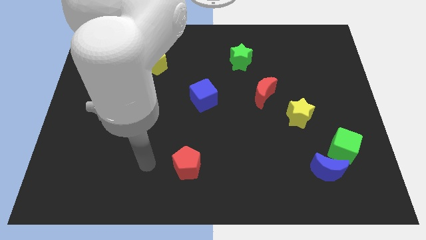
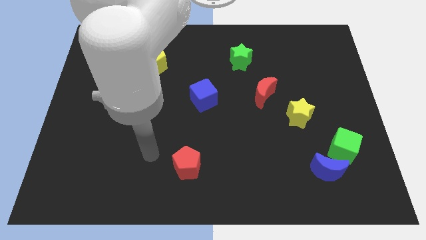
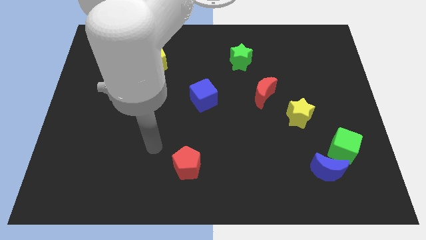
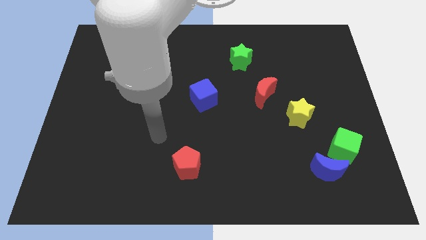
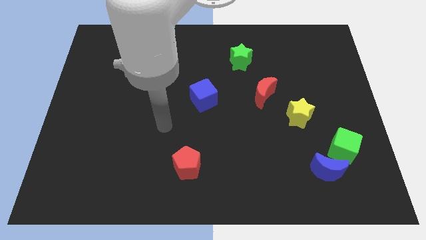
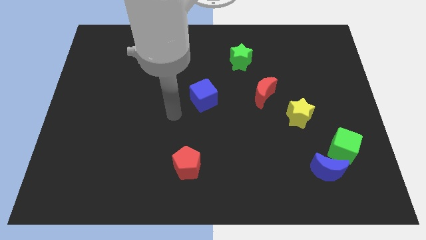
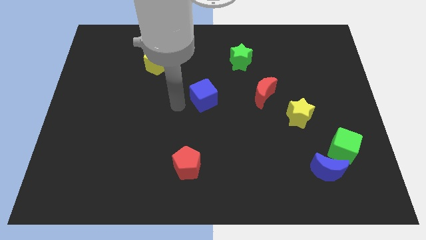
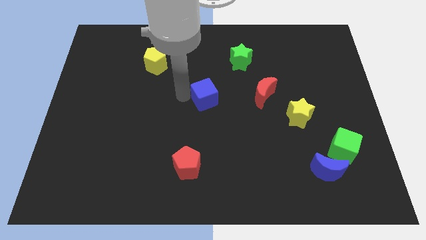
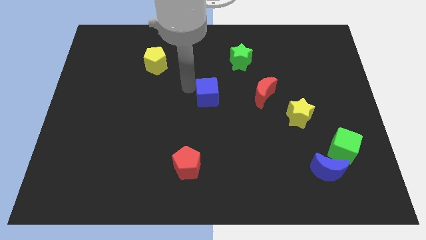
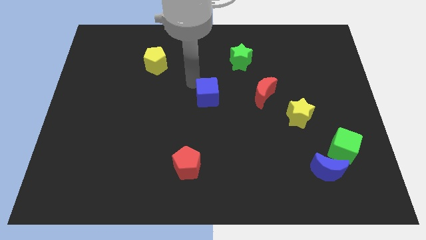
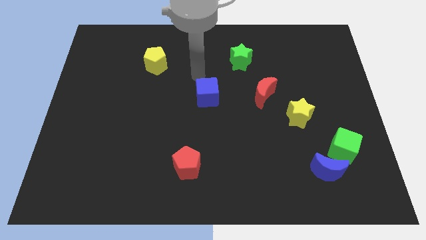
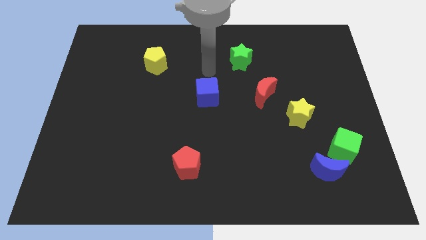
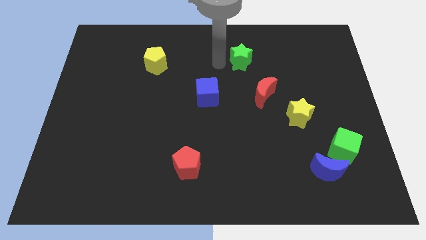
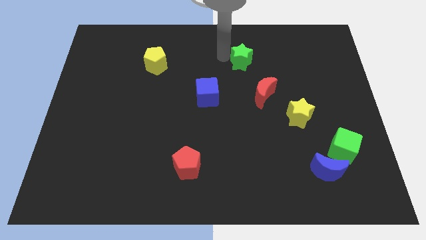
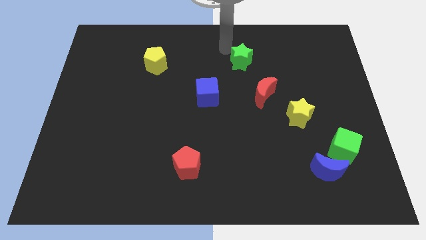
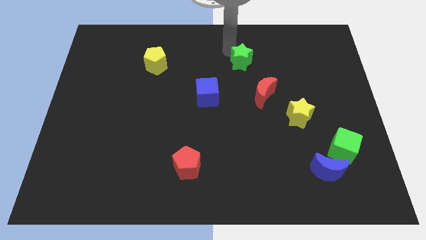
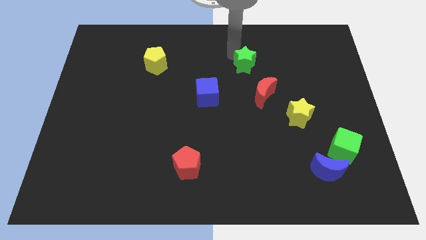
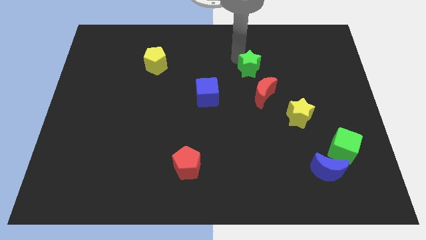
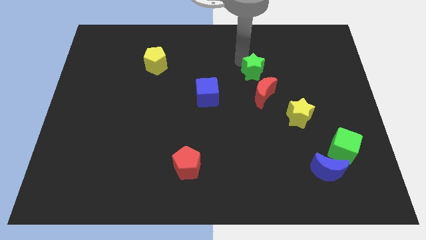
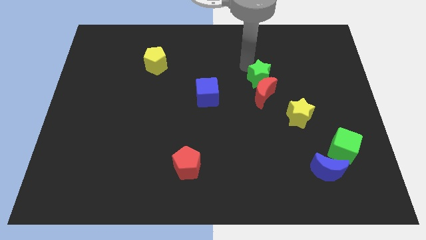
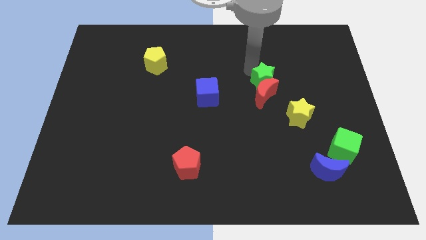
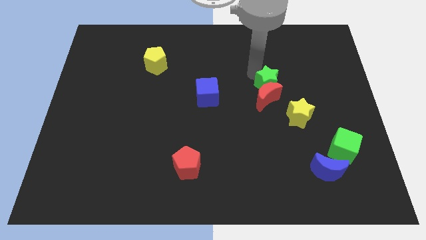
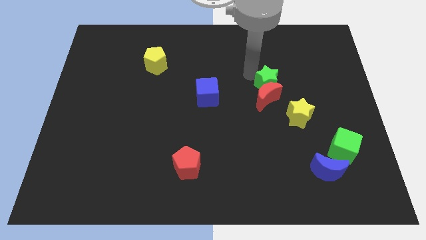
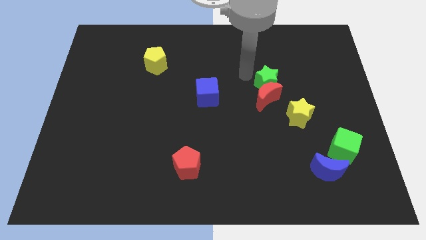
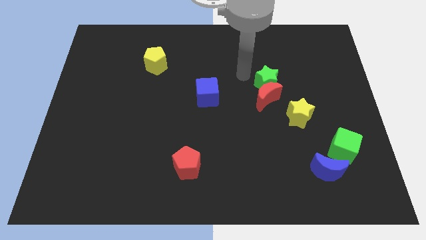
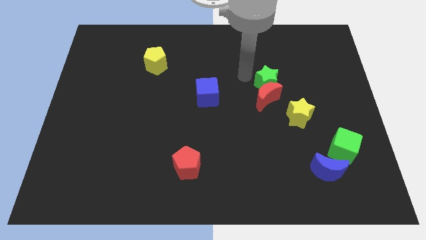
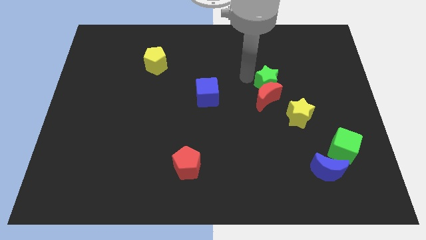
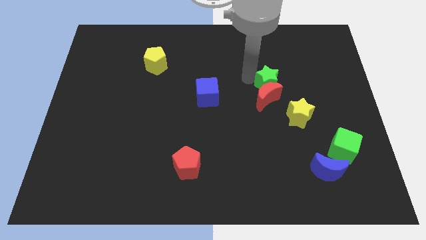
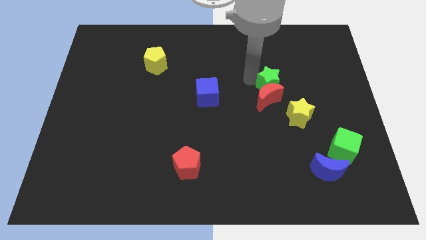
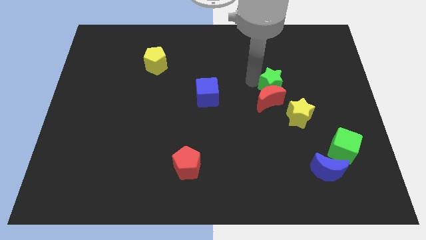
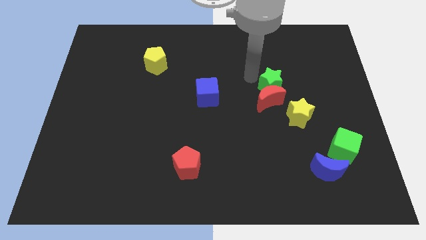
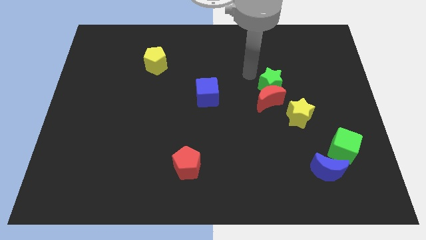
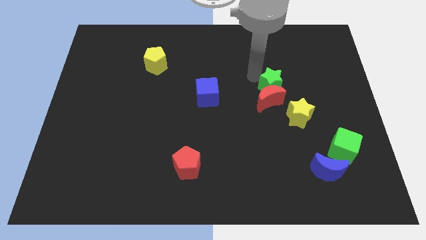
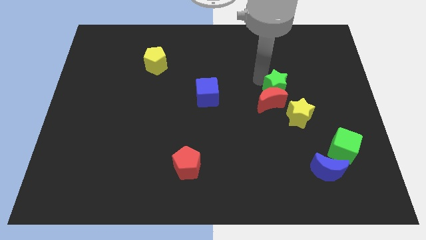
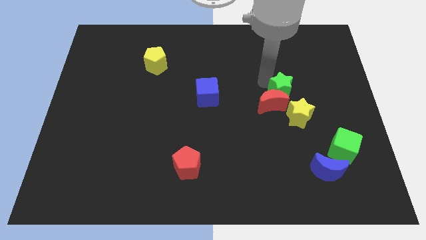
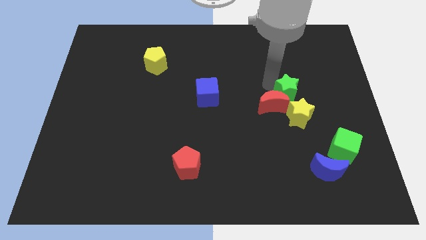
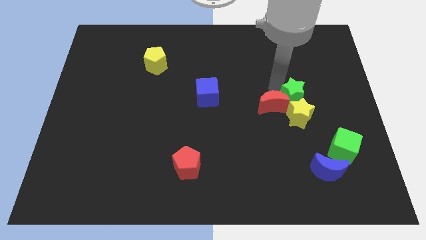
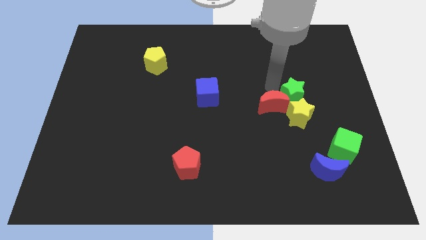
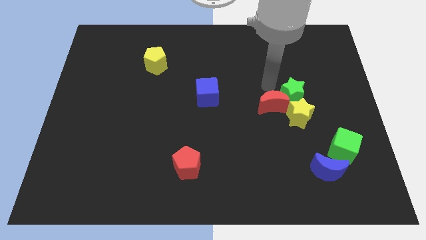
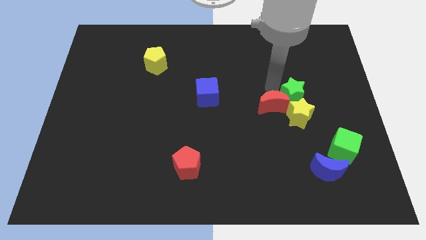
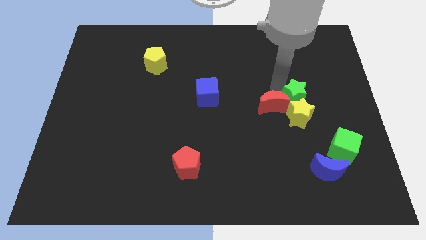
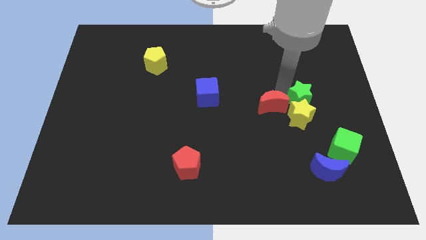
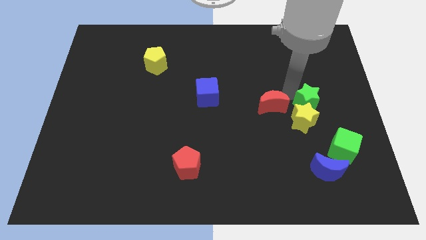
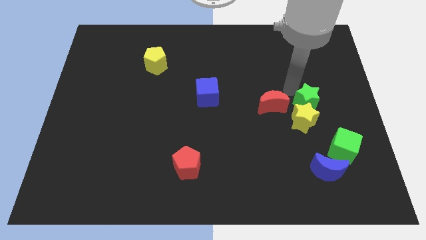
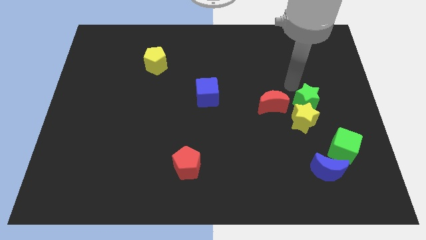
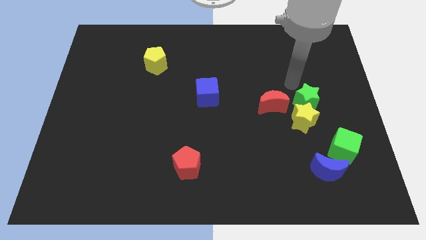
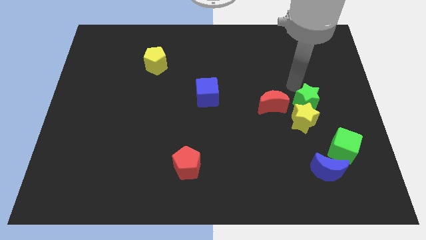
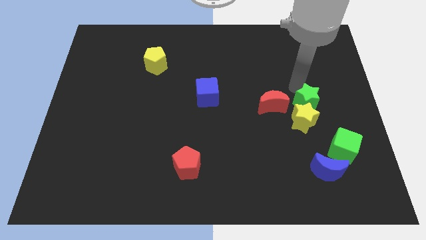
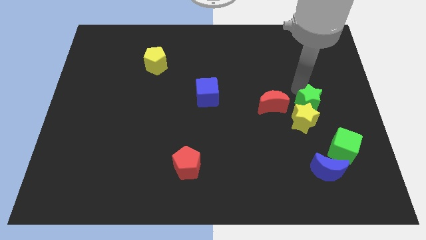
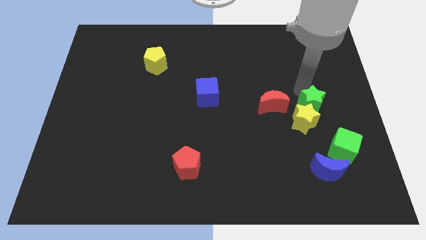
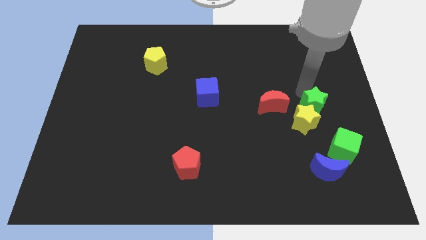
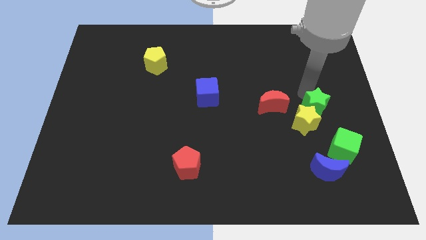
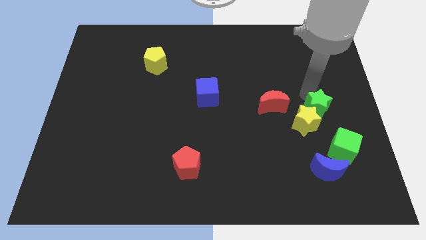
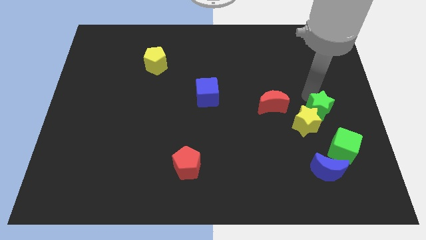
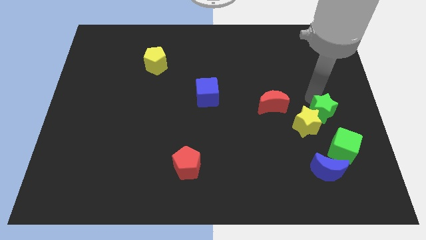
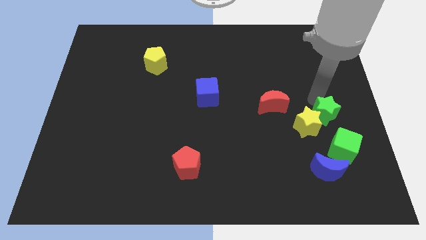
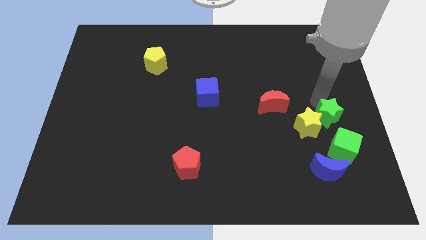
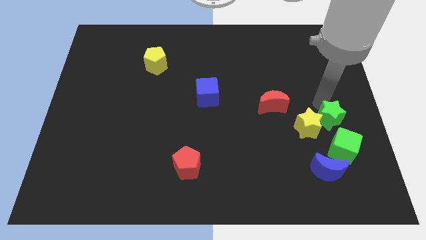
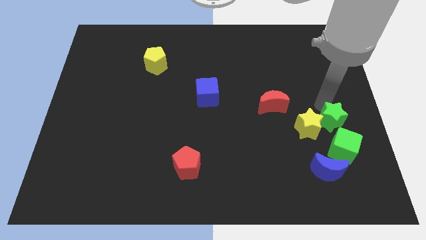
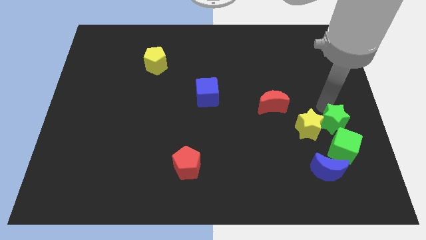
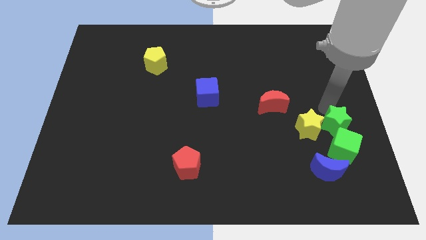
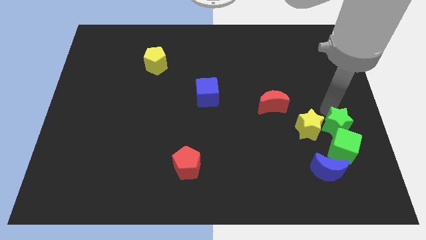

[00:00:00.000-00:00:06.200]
move the green star next to the green cube

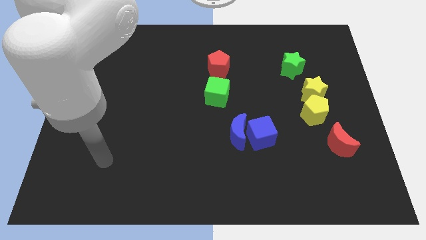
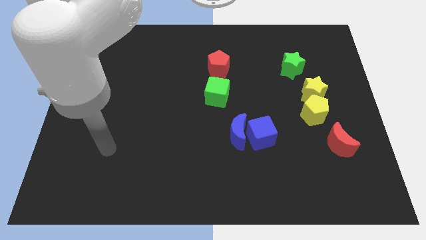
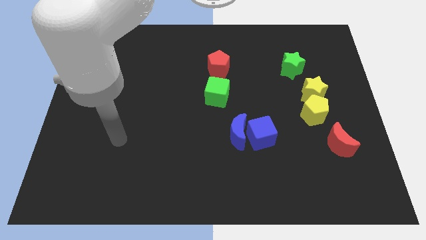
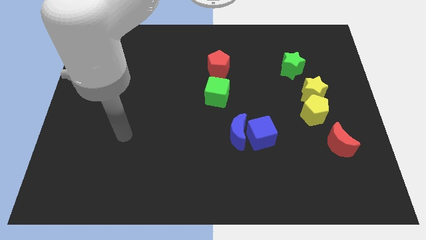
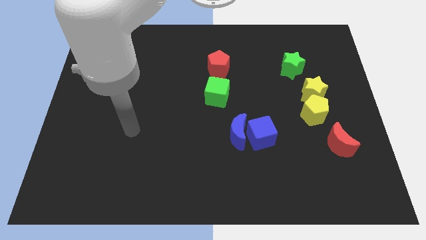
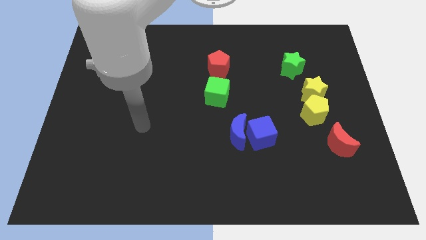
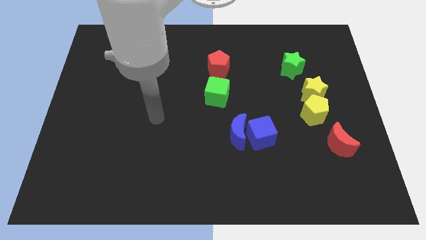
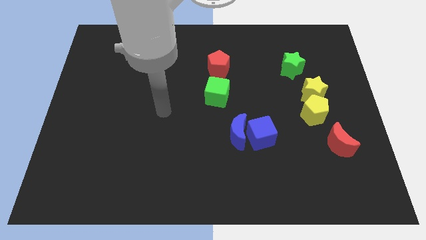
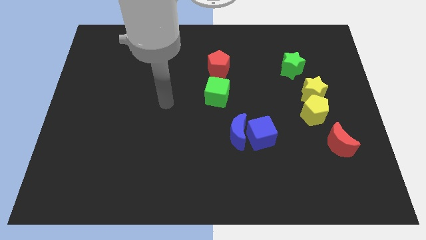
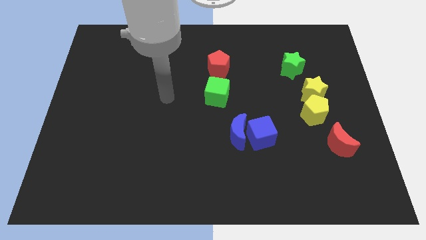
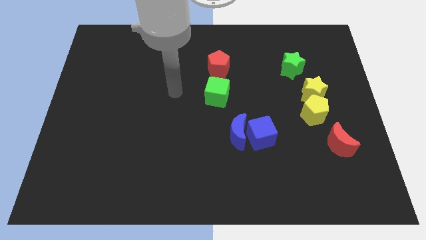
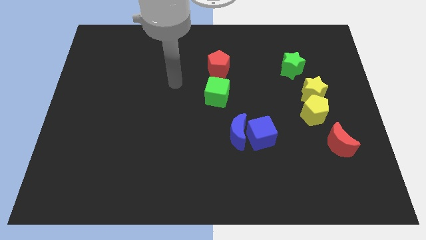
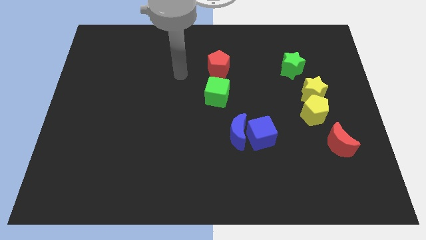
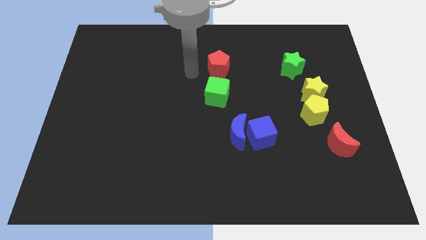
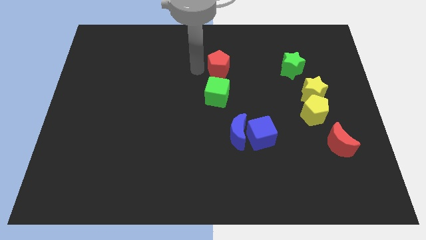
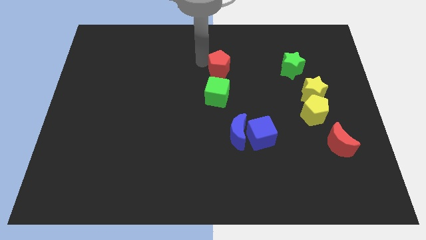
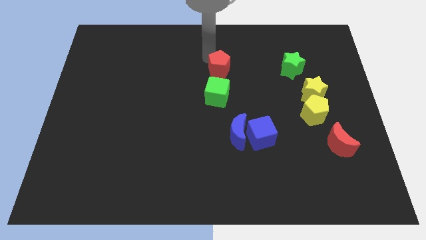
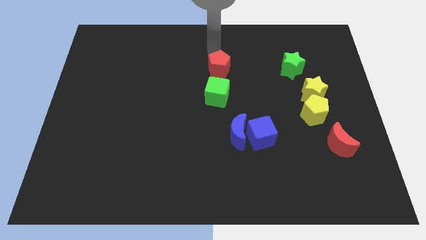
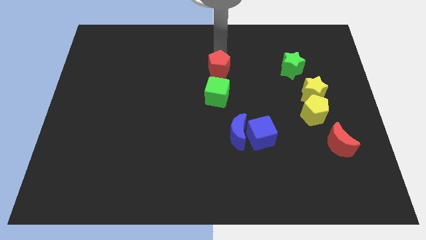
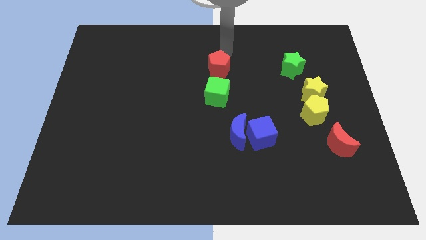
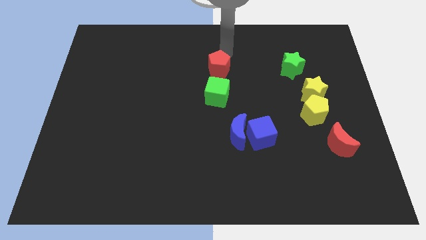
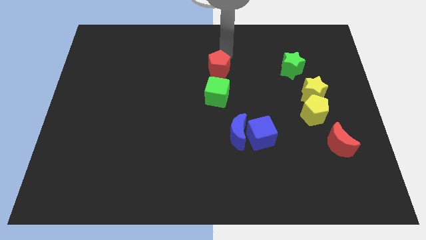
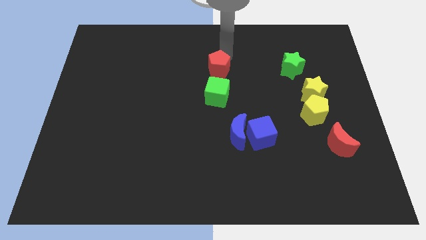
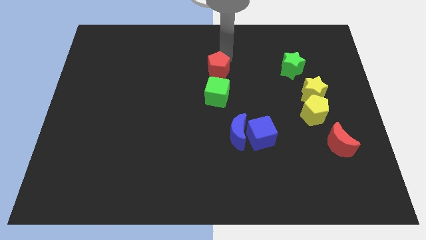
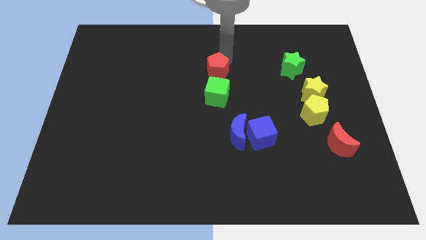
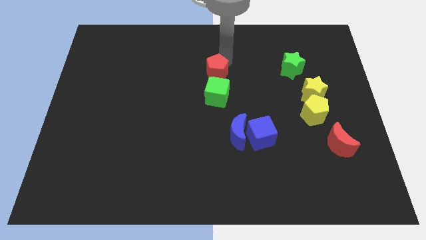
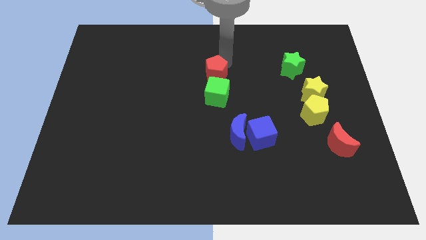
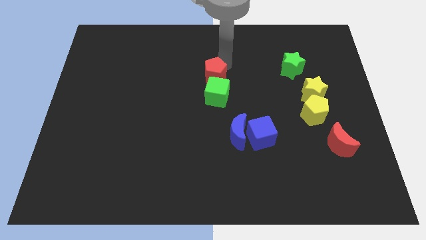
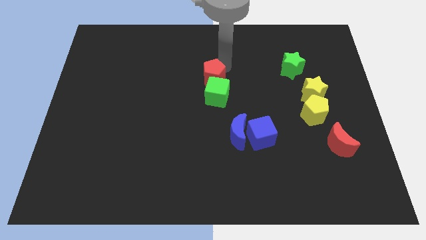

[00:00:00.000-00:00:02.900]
move the red pentagon to the green cube
